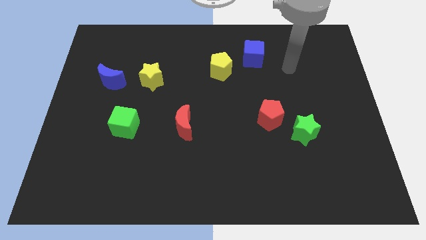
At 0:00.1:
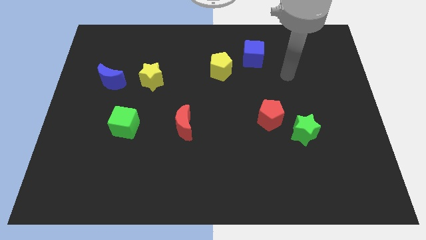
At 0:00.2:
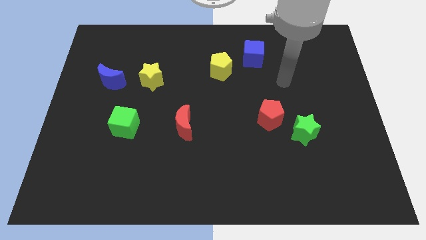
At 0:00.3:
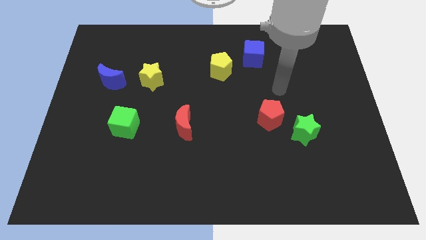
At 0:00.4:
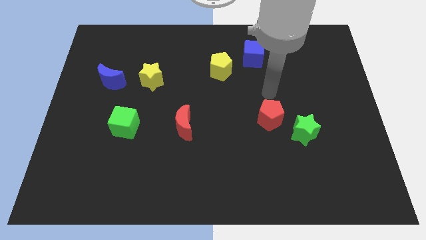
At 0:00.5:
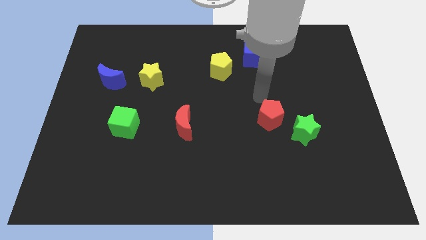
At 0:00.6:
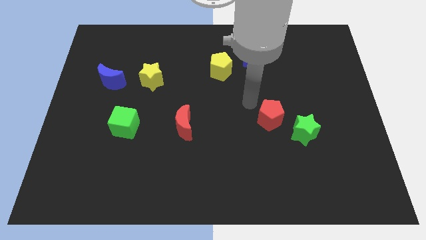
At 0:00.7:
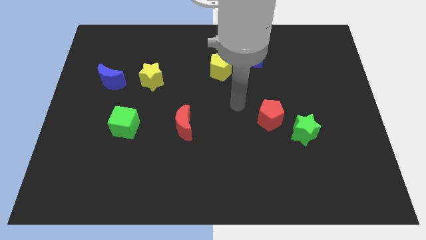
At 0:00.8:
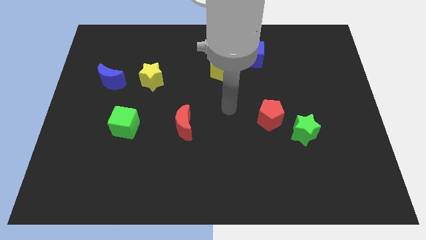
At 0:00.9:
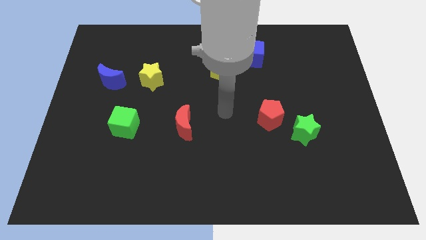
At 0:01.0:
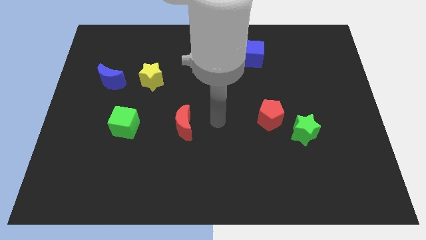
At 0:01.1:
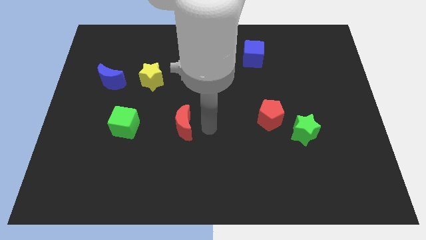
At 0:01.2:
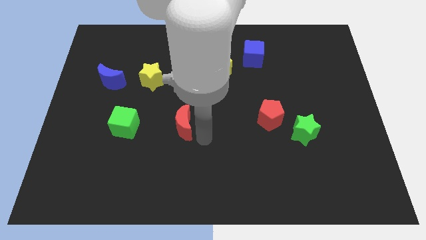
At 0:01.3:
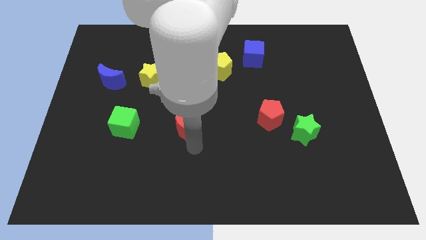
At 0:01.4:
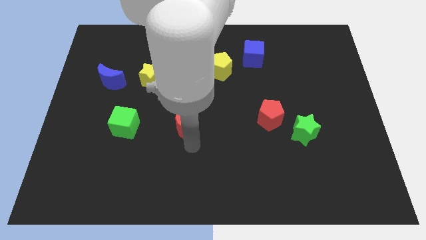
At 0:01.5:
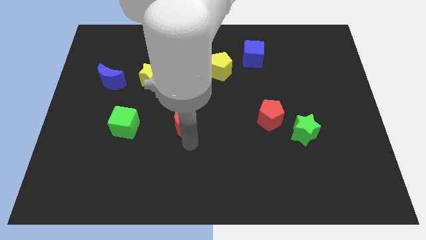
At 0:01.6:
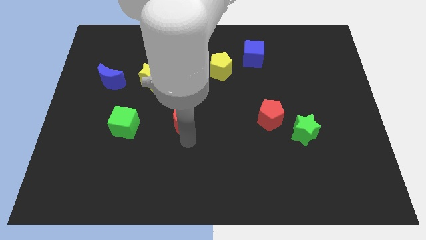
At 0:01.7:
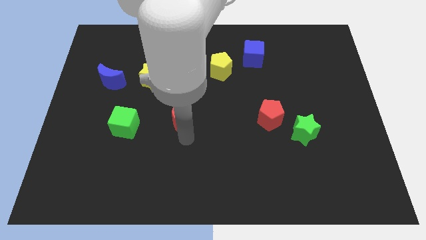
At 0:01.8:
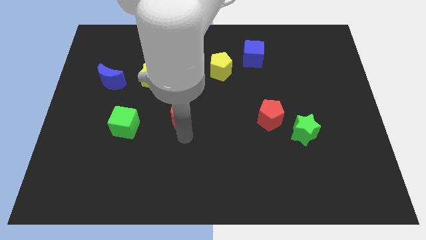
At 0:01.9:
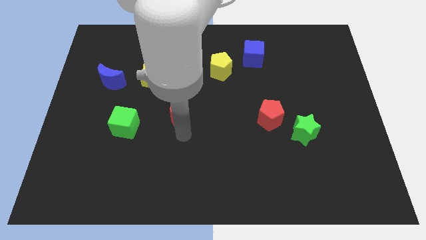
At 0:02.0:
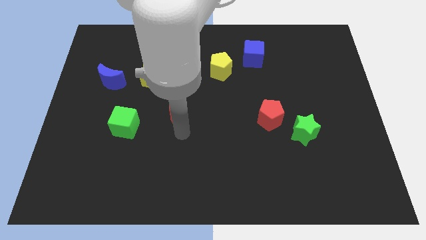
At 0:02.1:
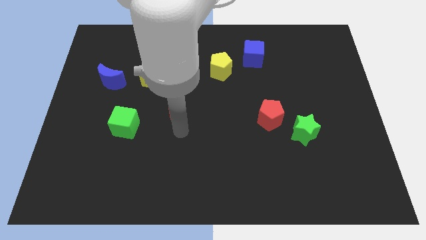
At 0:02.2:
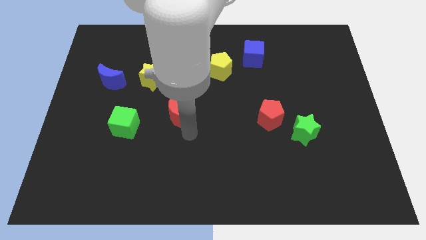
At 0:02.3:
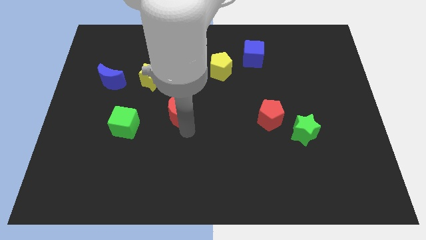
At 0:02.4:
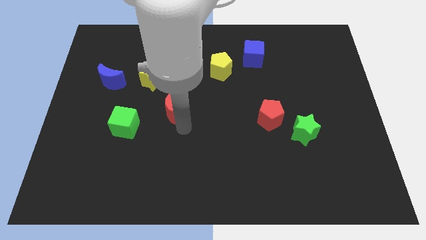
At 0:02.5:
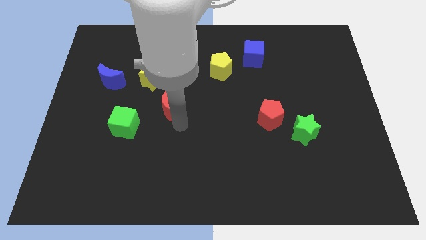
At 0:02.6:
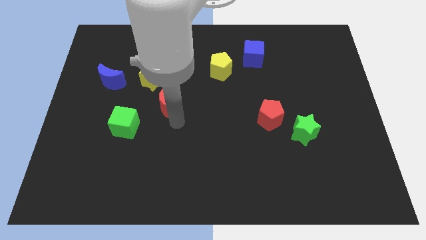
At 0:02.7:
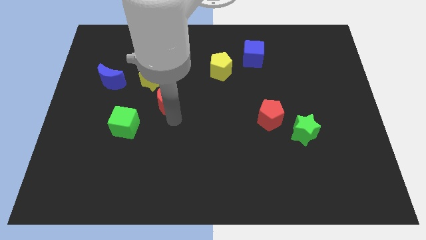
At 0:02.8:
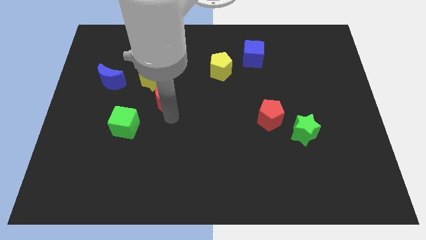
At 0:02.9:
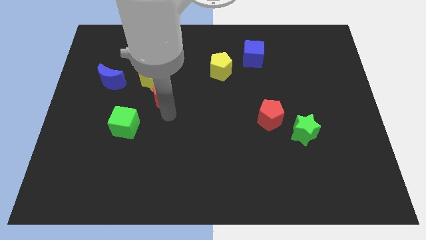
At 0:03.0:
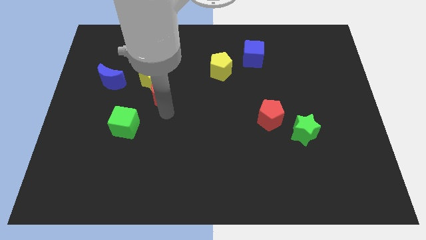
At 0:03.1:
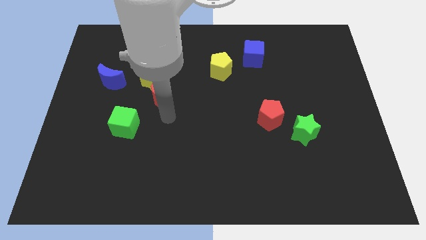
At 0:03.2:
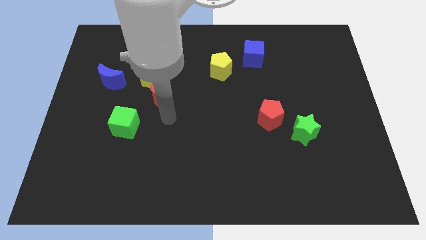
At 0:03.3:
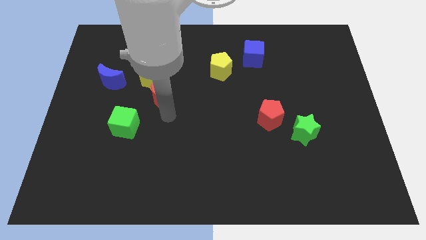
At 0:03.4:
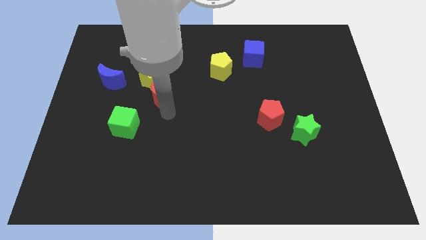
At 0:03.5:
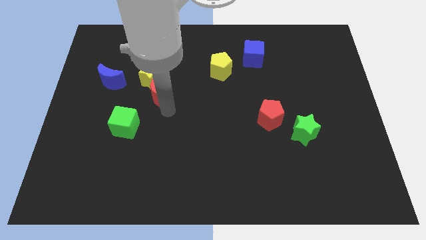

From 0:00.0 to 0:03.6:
push the red moon close to the yellow star

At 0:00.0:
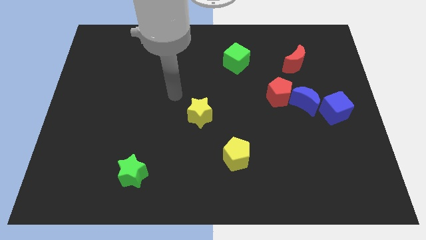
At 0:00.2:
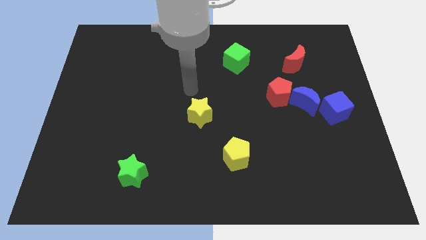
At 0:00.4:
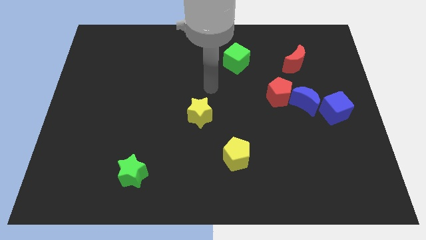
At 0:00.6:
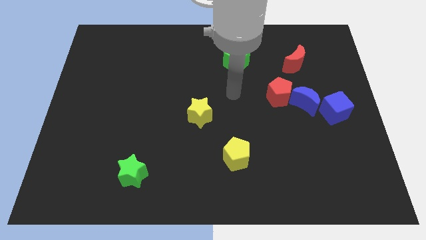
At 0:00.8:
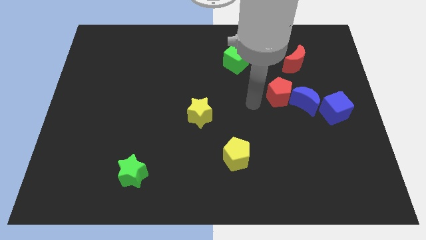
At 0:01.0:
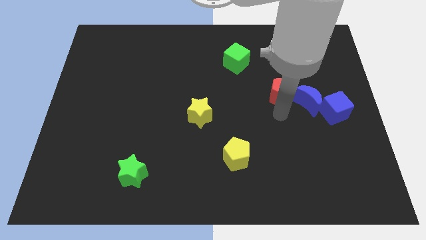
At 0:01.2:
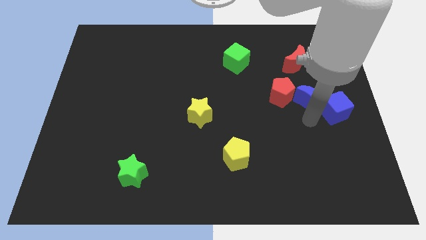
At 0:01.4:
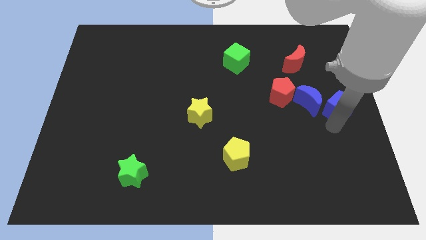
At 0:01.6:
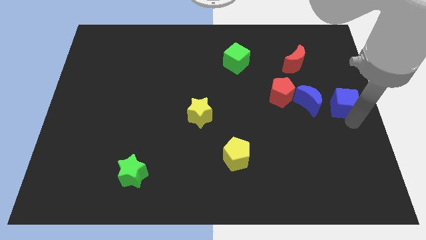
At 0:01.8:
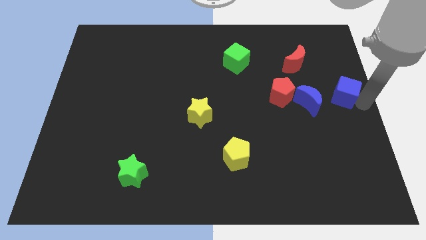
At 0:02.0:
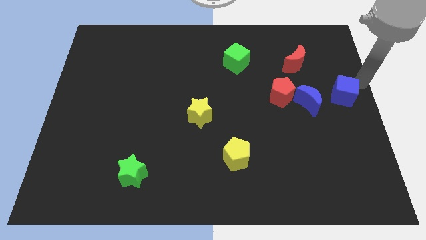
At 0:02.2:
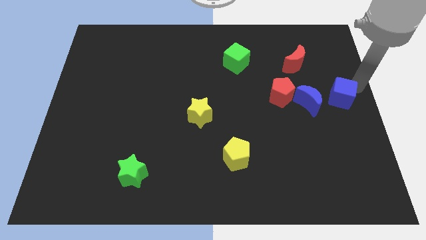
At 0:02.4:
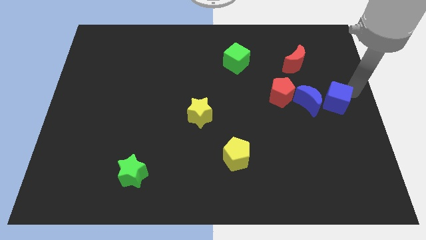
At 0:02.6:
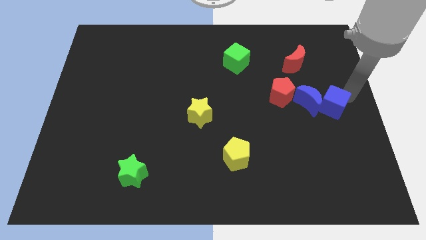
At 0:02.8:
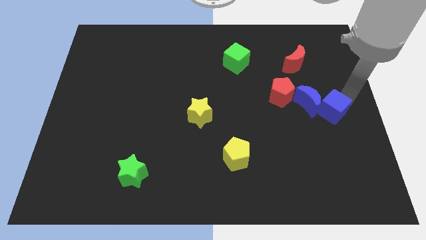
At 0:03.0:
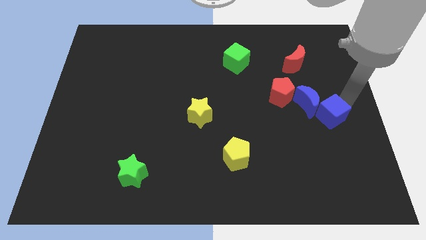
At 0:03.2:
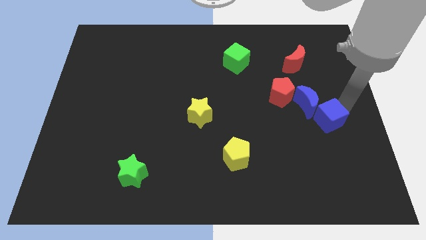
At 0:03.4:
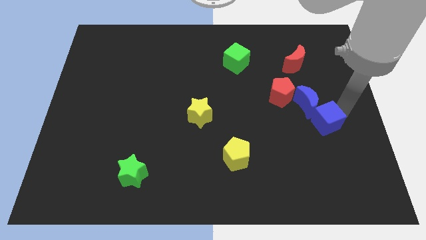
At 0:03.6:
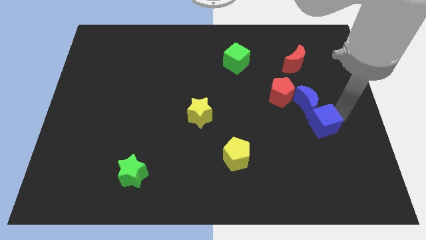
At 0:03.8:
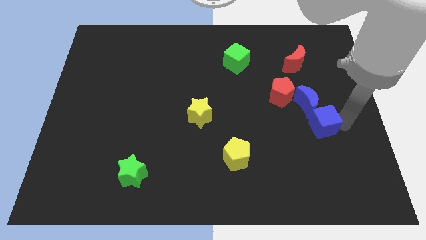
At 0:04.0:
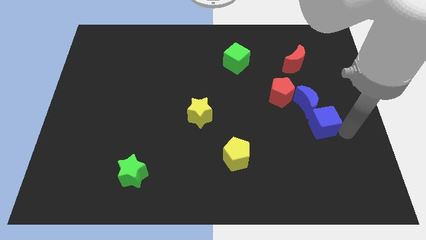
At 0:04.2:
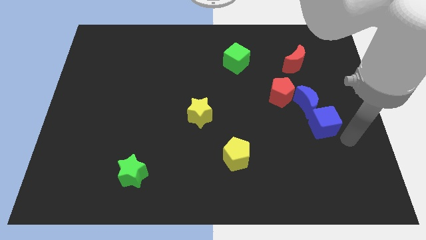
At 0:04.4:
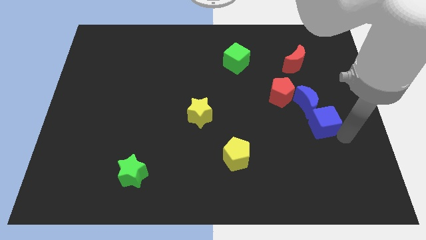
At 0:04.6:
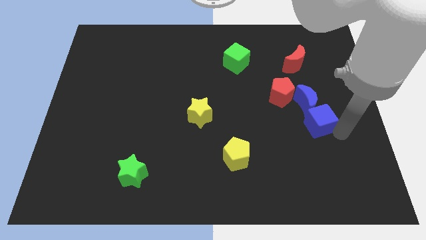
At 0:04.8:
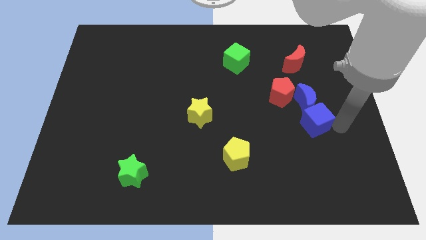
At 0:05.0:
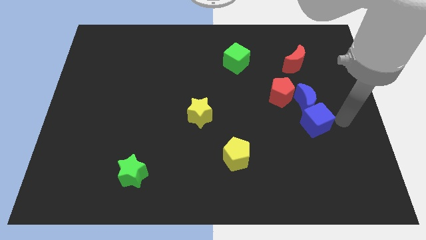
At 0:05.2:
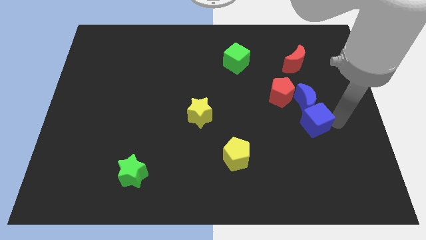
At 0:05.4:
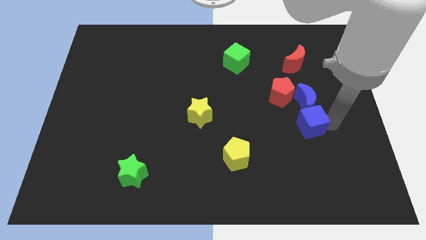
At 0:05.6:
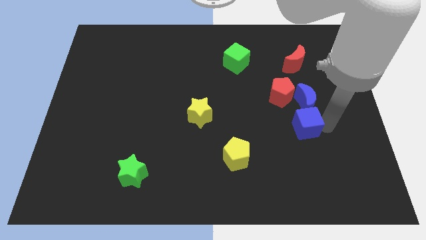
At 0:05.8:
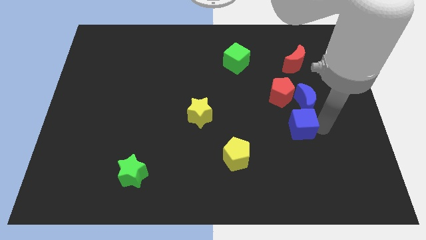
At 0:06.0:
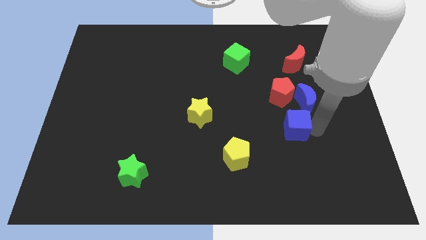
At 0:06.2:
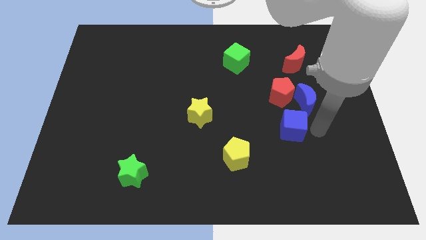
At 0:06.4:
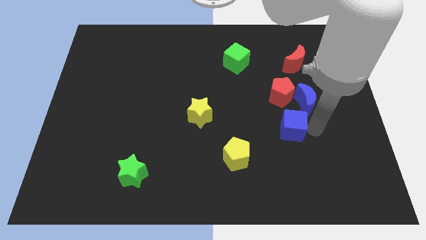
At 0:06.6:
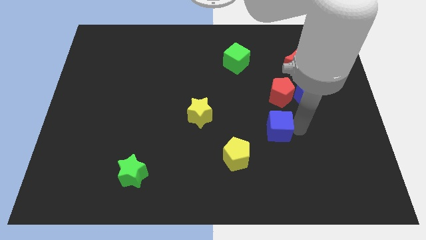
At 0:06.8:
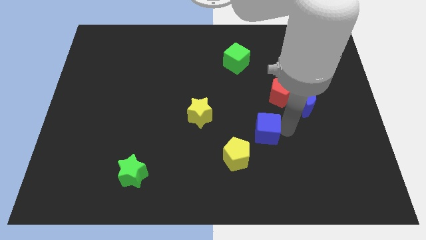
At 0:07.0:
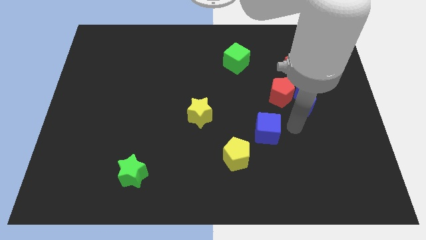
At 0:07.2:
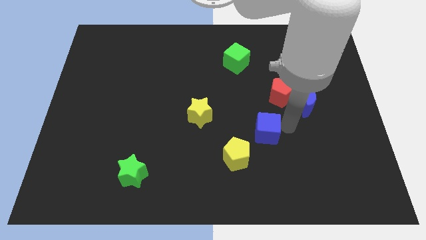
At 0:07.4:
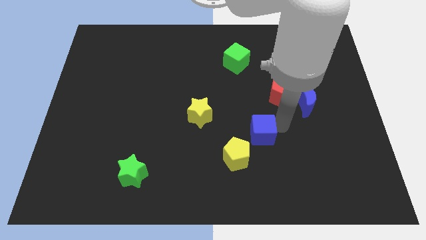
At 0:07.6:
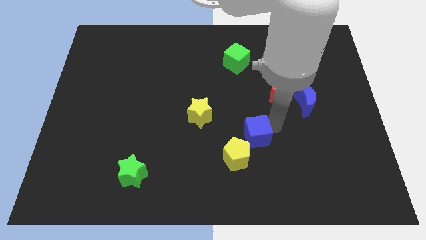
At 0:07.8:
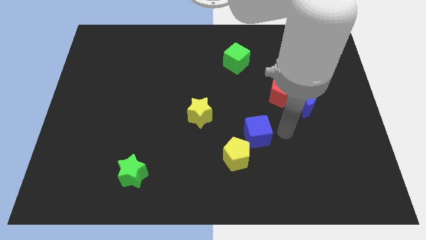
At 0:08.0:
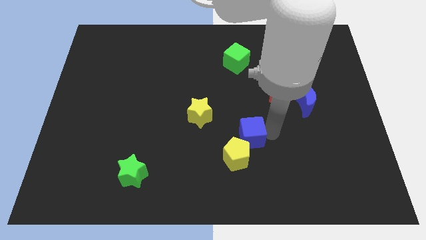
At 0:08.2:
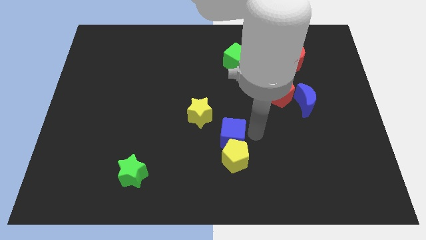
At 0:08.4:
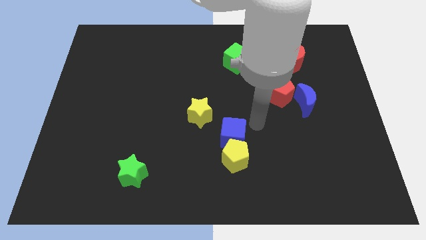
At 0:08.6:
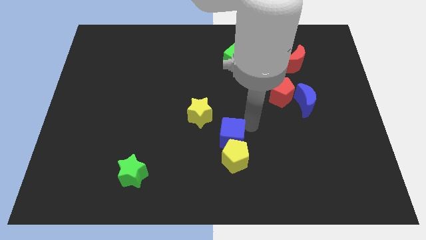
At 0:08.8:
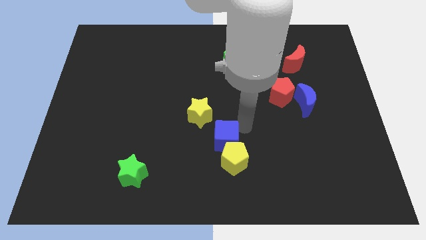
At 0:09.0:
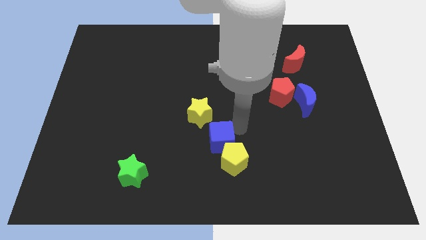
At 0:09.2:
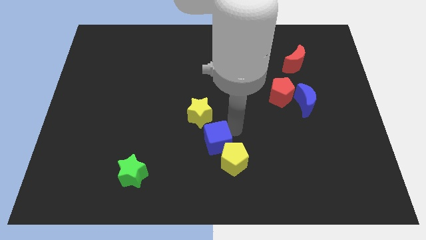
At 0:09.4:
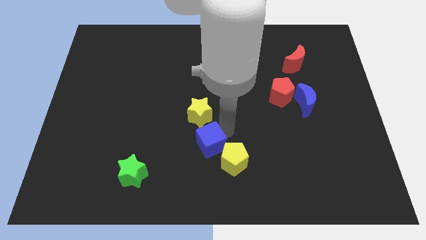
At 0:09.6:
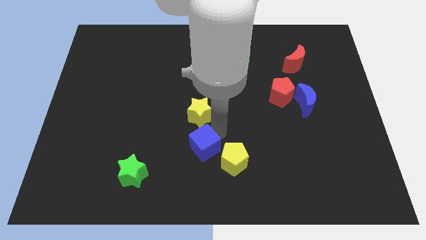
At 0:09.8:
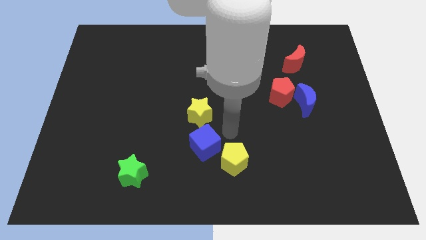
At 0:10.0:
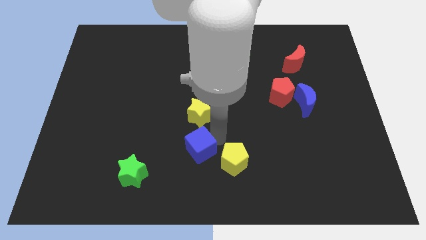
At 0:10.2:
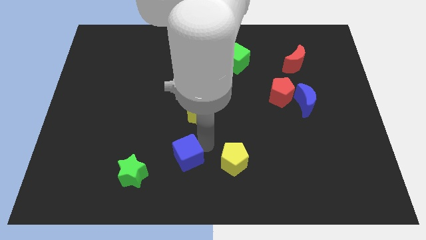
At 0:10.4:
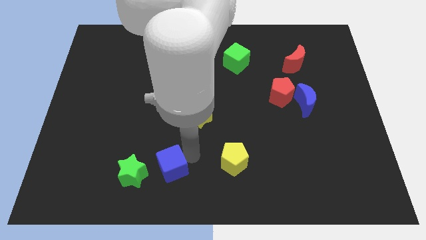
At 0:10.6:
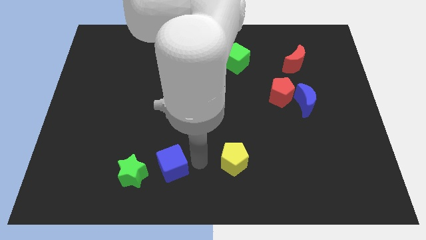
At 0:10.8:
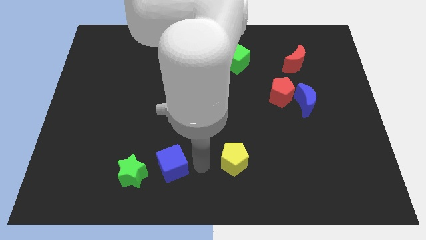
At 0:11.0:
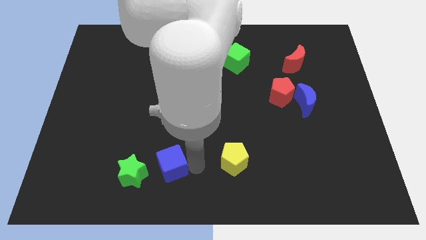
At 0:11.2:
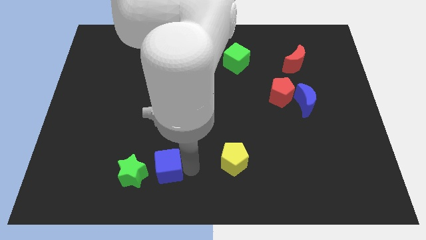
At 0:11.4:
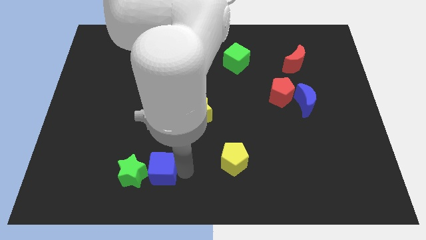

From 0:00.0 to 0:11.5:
slide the blue cube to the green star
